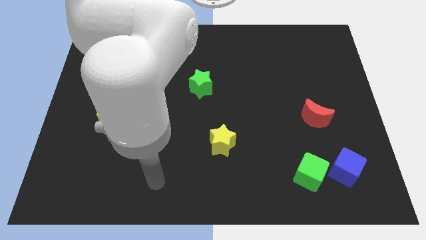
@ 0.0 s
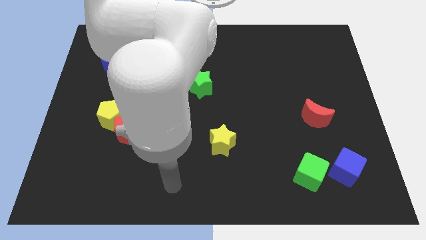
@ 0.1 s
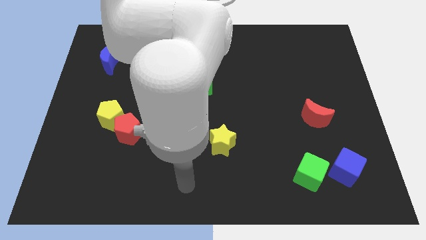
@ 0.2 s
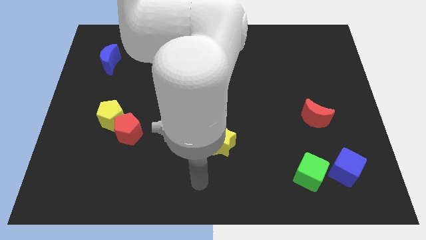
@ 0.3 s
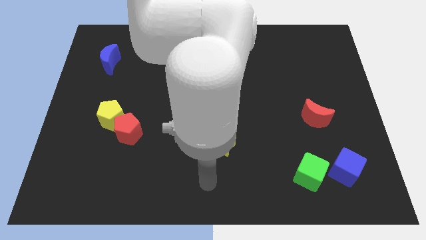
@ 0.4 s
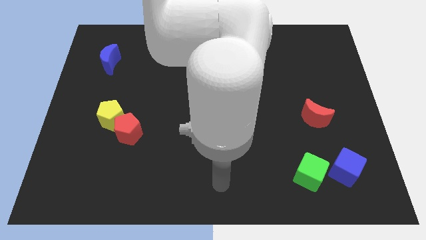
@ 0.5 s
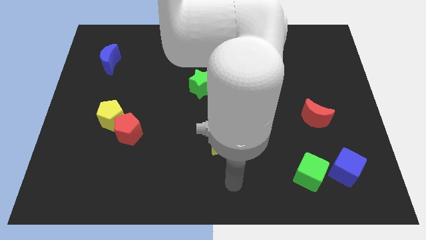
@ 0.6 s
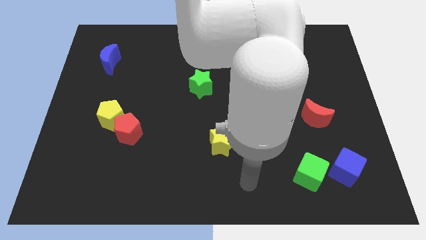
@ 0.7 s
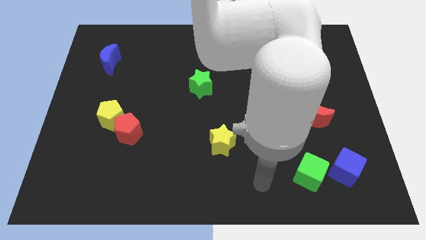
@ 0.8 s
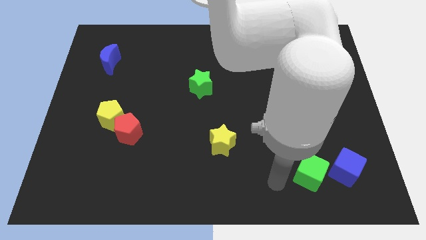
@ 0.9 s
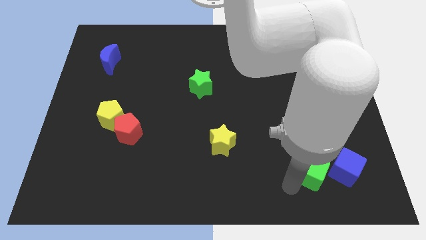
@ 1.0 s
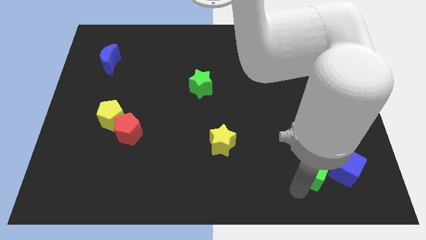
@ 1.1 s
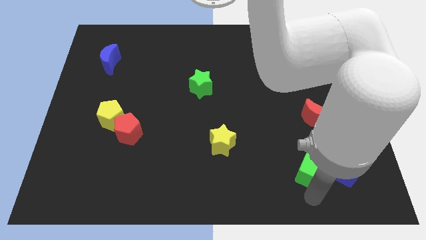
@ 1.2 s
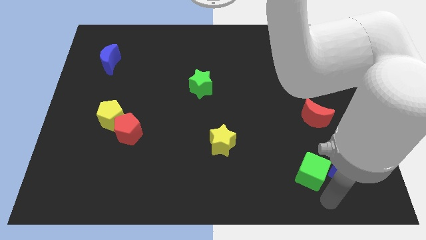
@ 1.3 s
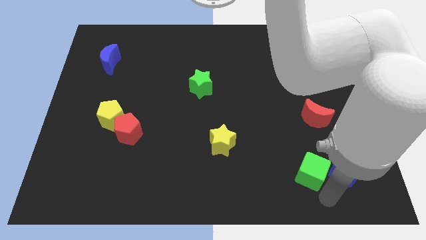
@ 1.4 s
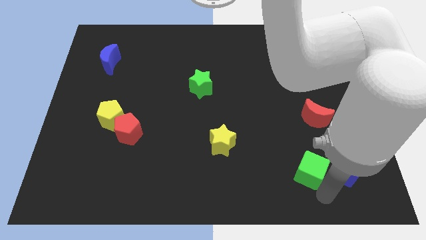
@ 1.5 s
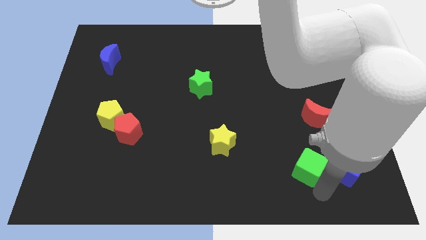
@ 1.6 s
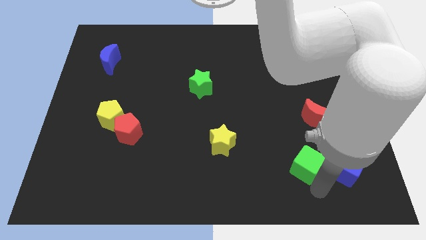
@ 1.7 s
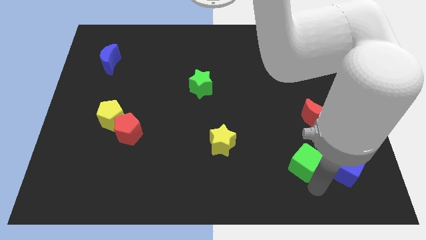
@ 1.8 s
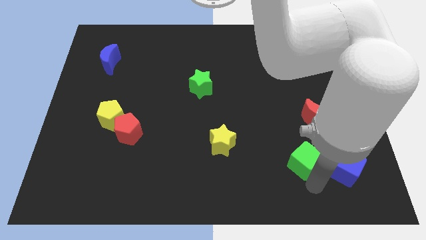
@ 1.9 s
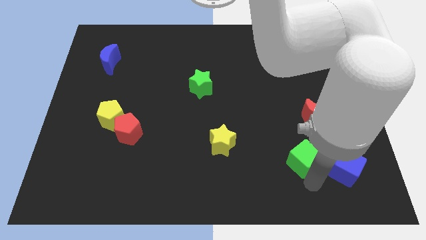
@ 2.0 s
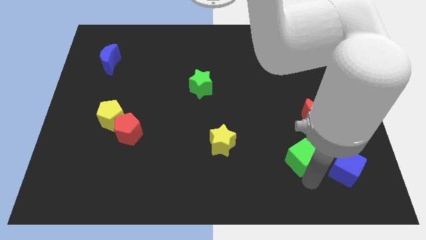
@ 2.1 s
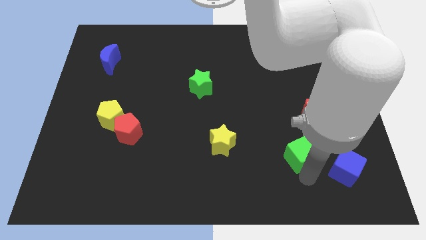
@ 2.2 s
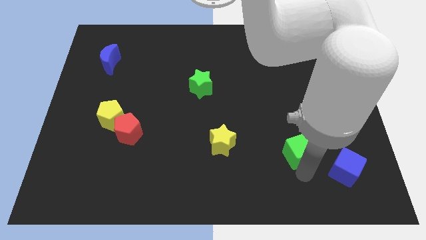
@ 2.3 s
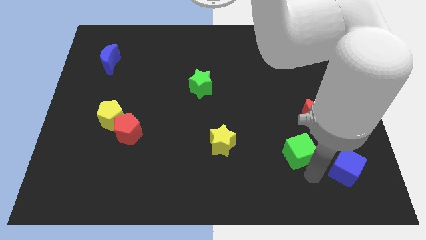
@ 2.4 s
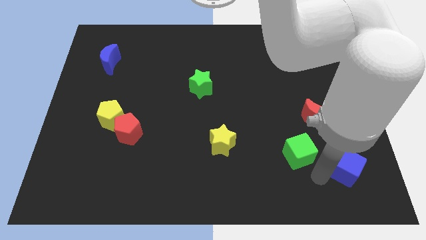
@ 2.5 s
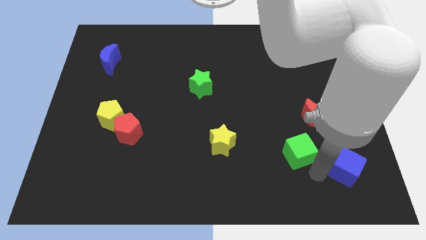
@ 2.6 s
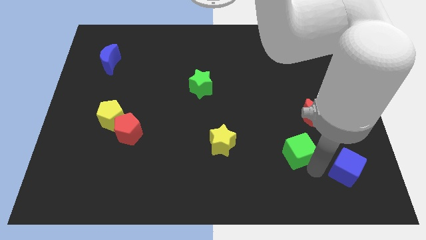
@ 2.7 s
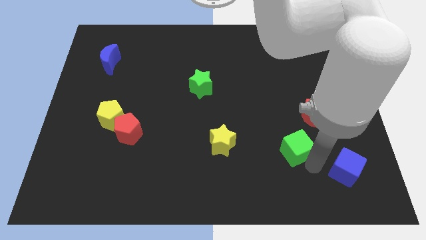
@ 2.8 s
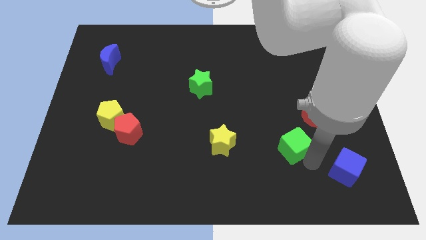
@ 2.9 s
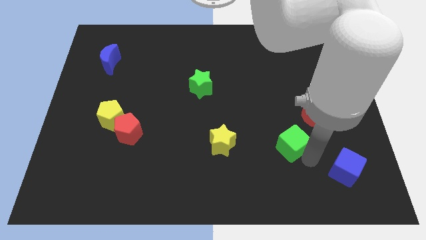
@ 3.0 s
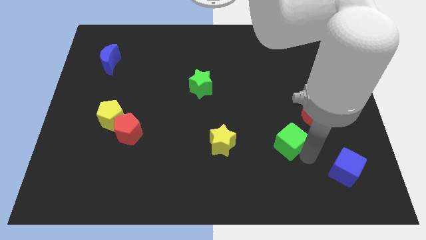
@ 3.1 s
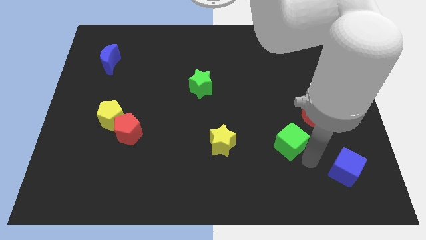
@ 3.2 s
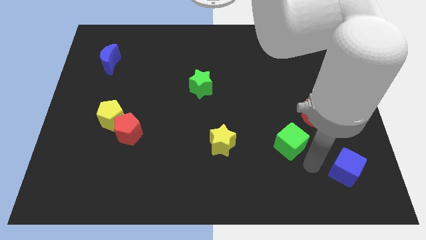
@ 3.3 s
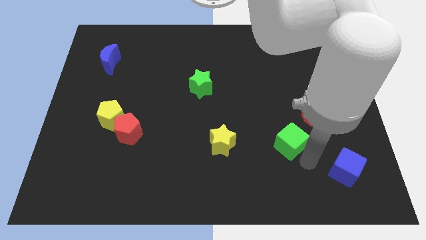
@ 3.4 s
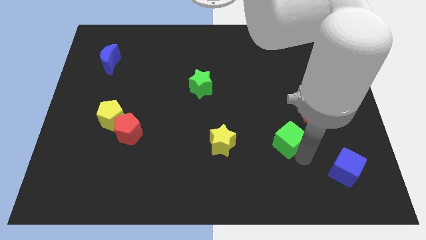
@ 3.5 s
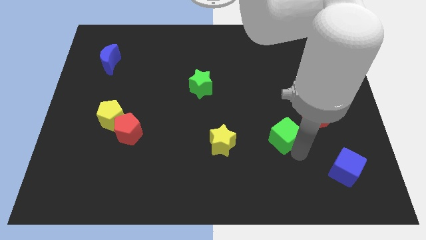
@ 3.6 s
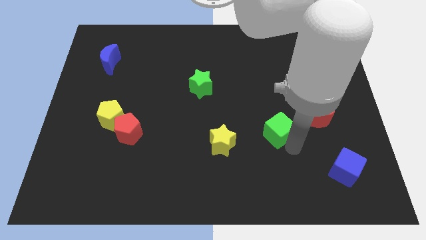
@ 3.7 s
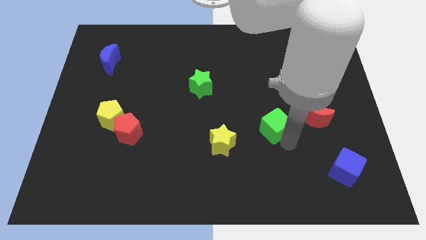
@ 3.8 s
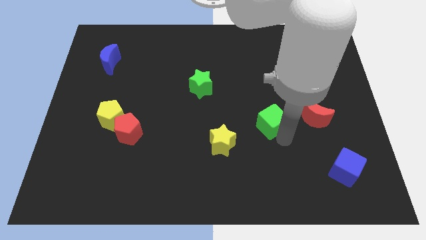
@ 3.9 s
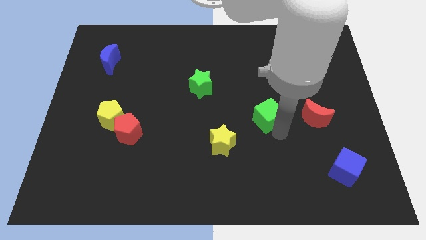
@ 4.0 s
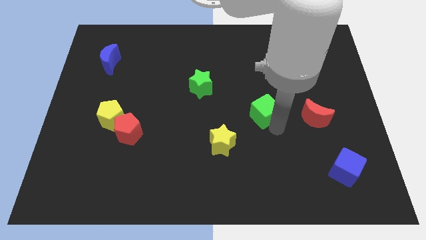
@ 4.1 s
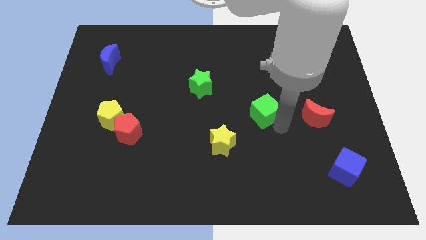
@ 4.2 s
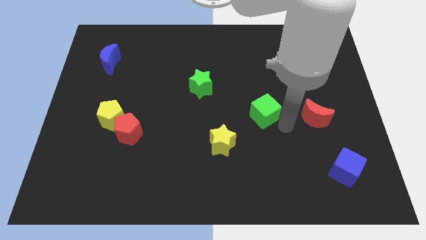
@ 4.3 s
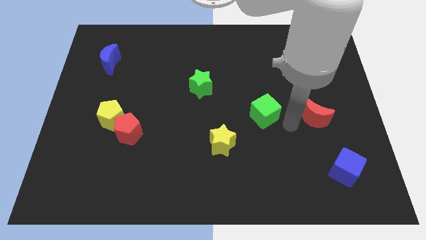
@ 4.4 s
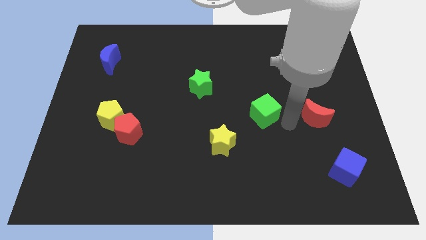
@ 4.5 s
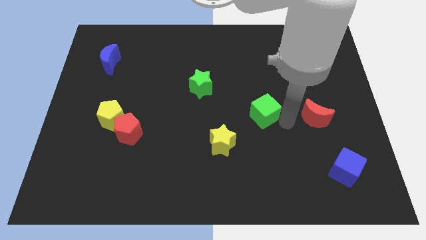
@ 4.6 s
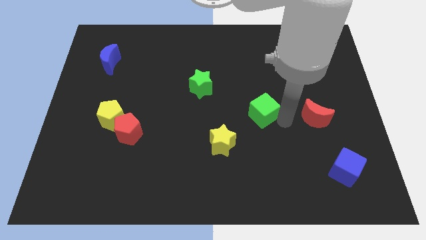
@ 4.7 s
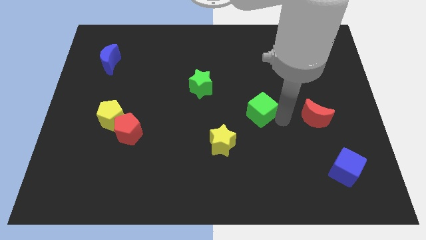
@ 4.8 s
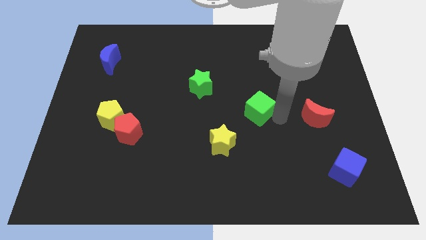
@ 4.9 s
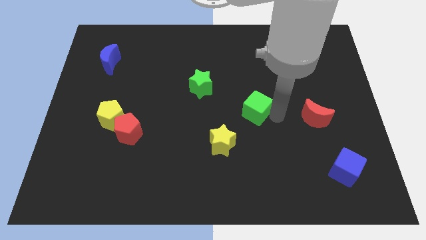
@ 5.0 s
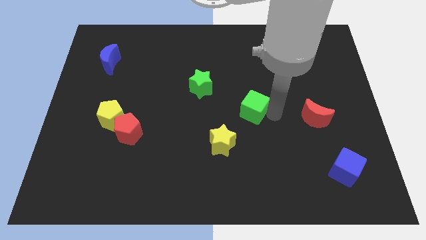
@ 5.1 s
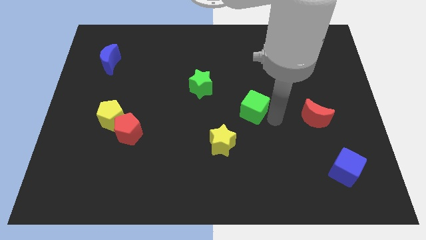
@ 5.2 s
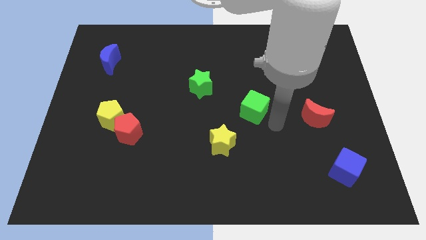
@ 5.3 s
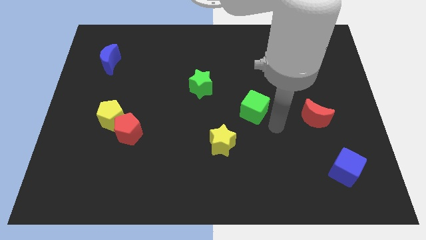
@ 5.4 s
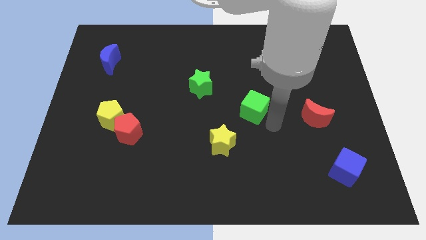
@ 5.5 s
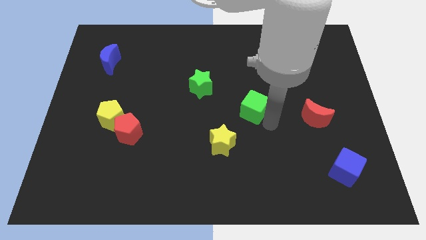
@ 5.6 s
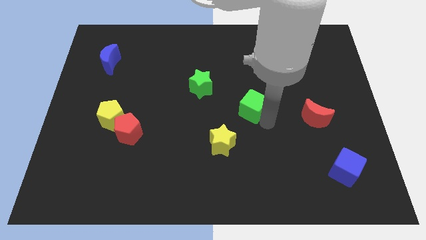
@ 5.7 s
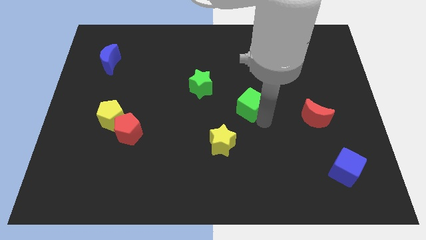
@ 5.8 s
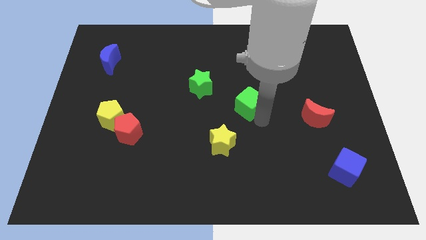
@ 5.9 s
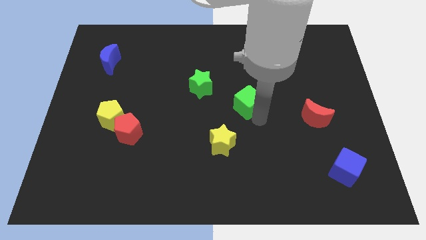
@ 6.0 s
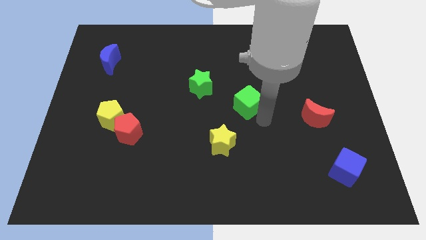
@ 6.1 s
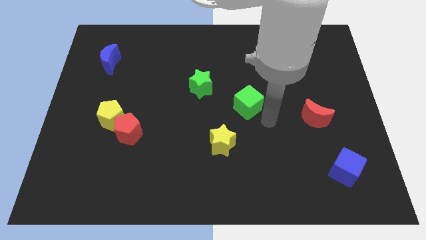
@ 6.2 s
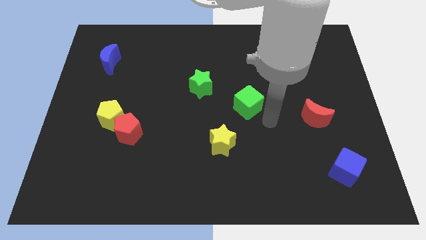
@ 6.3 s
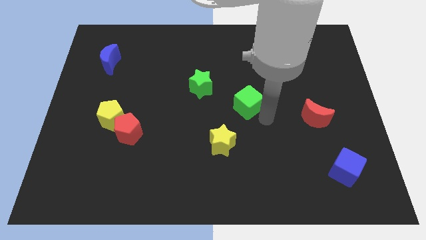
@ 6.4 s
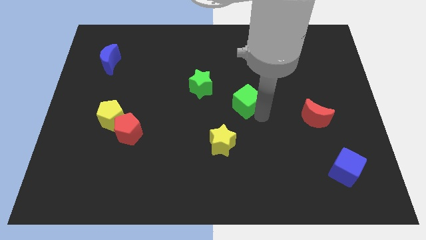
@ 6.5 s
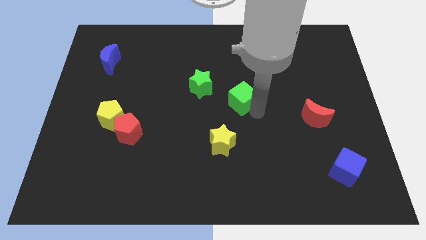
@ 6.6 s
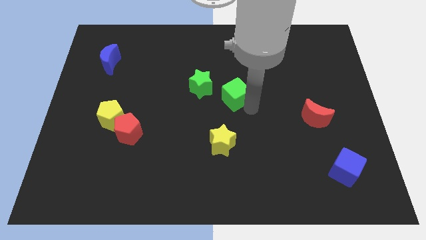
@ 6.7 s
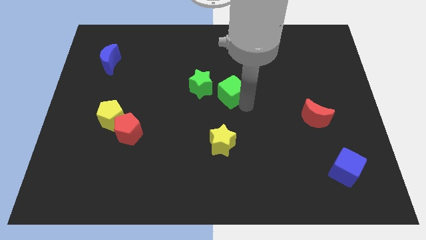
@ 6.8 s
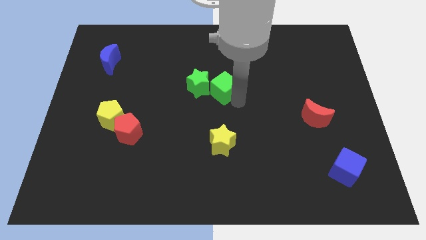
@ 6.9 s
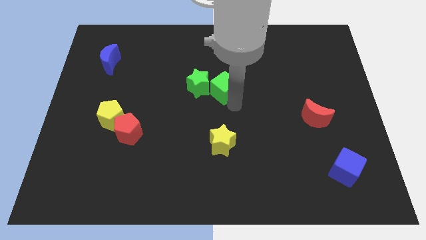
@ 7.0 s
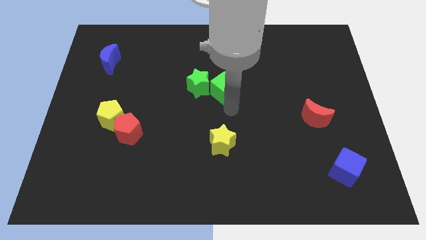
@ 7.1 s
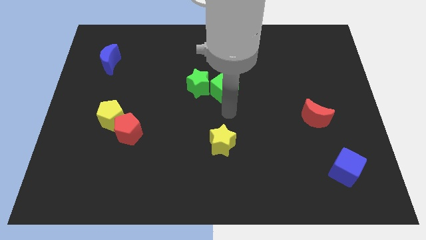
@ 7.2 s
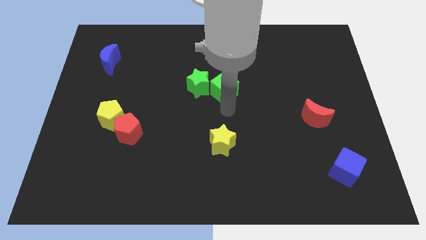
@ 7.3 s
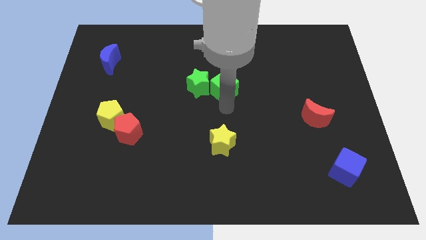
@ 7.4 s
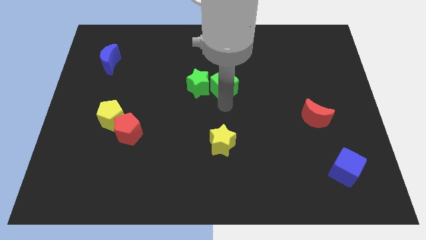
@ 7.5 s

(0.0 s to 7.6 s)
put the green cube to the top right side of the green star
